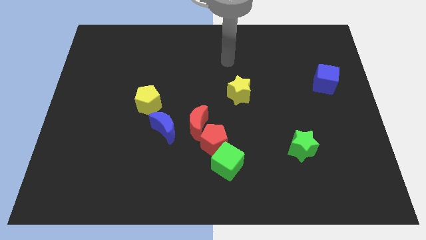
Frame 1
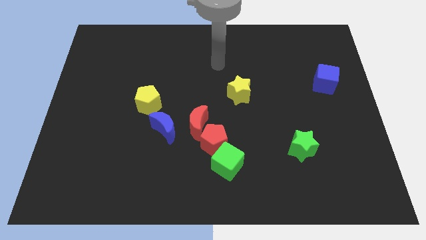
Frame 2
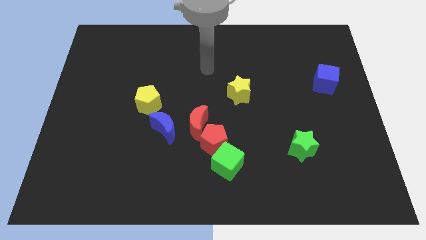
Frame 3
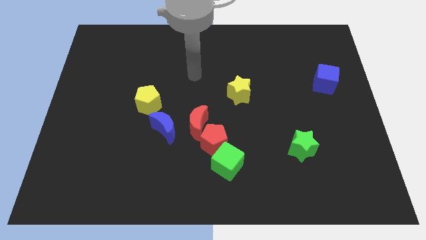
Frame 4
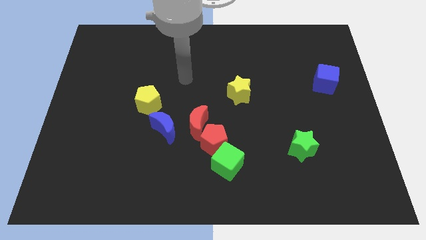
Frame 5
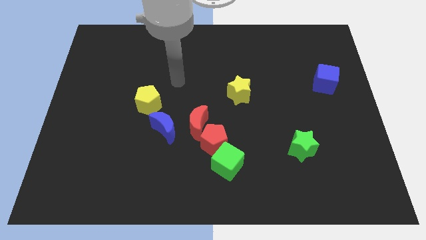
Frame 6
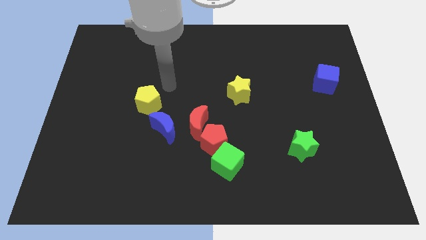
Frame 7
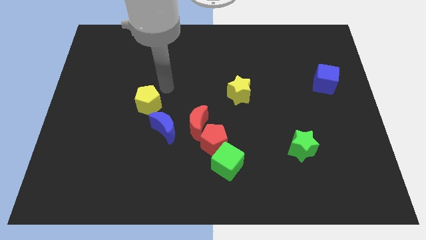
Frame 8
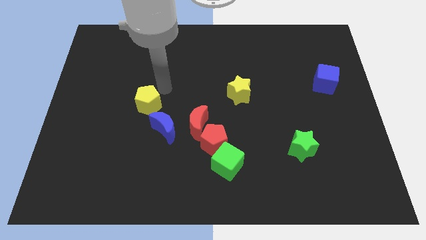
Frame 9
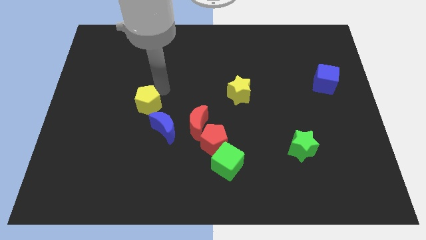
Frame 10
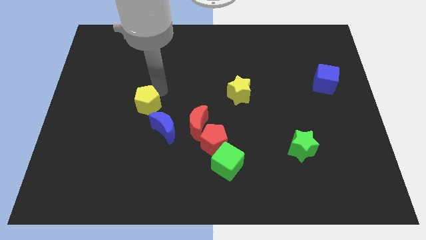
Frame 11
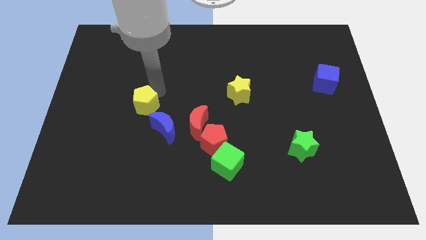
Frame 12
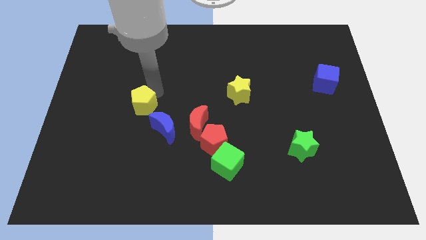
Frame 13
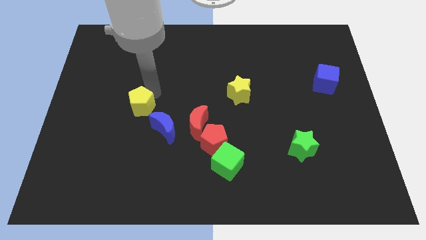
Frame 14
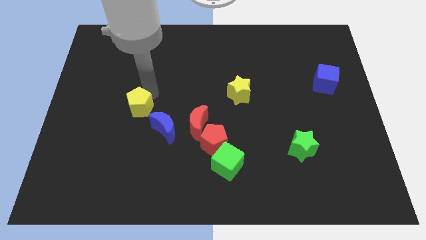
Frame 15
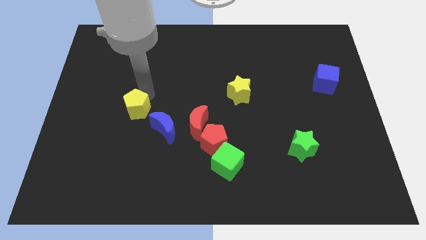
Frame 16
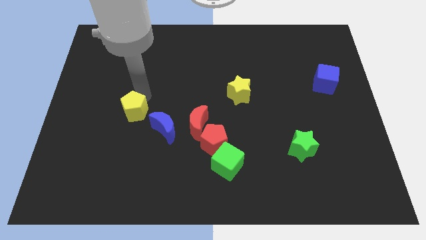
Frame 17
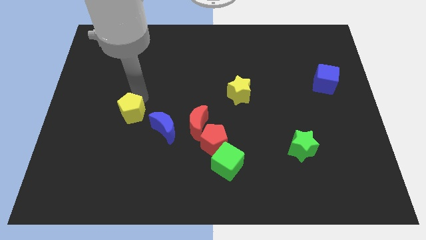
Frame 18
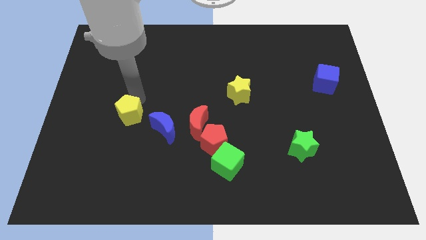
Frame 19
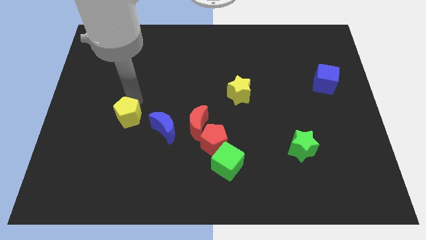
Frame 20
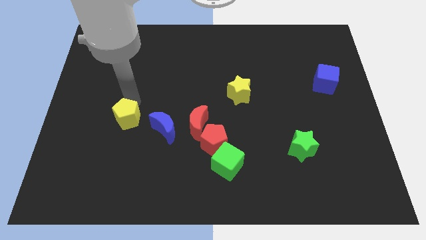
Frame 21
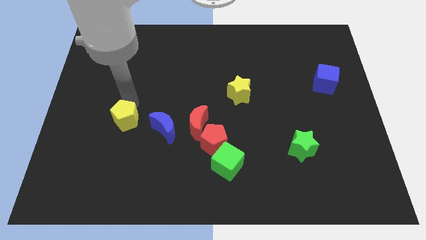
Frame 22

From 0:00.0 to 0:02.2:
push the yellow pentagon a bit diagonally downwards and left

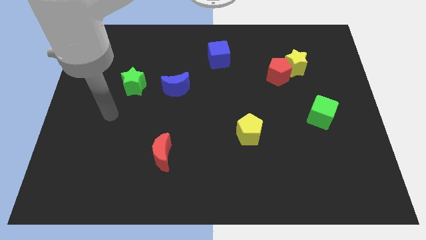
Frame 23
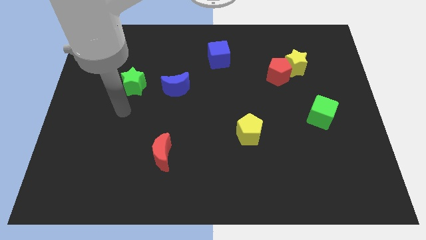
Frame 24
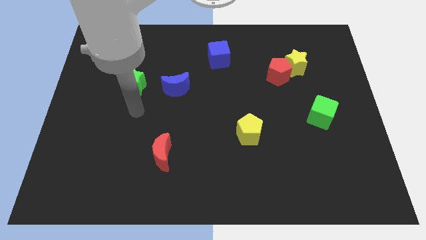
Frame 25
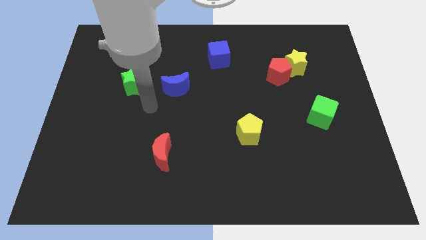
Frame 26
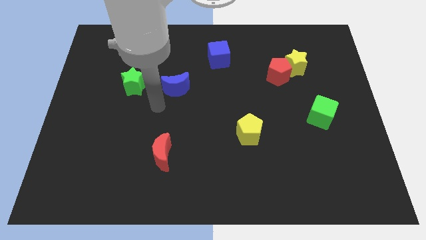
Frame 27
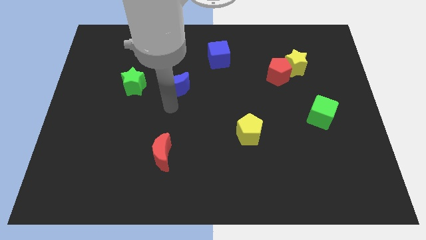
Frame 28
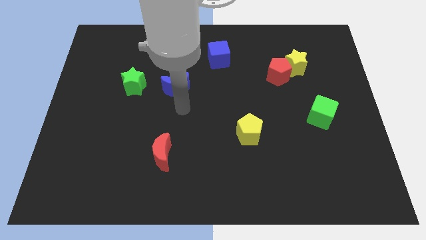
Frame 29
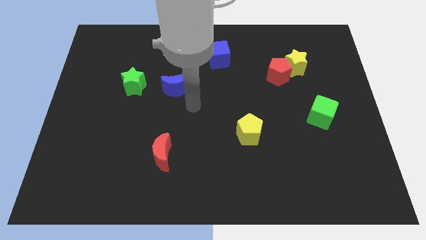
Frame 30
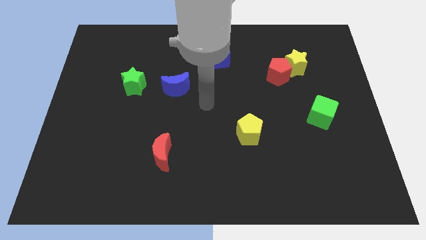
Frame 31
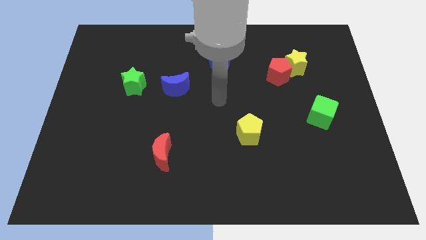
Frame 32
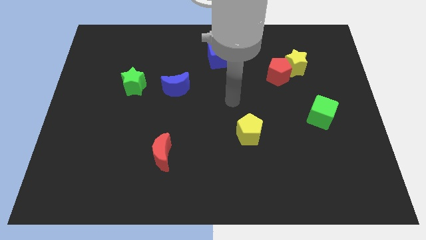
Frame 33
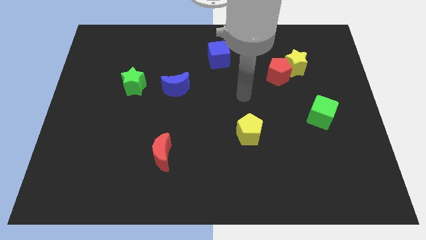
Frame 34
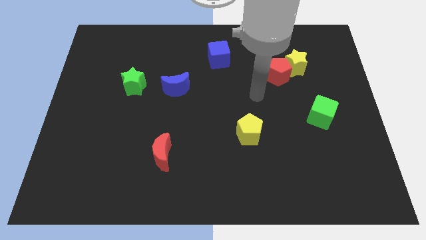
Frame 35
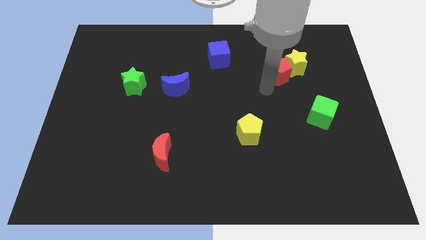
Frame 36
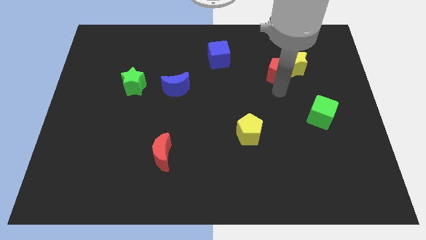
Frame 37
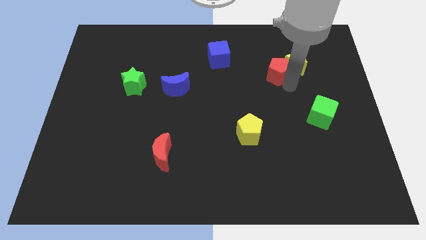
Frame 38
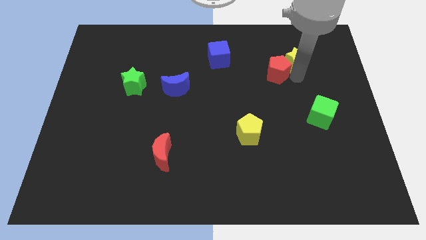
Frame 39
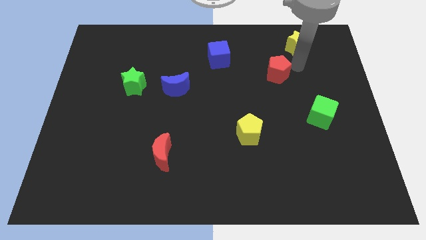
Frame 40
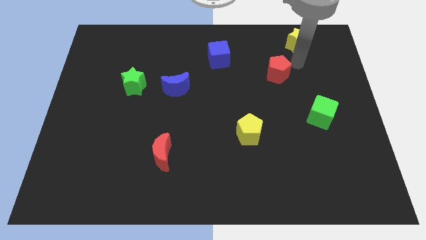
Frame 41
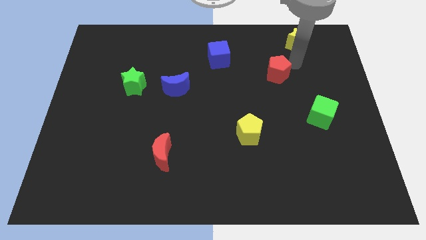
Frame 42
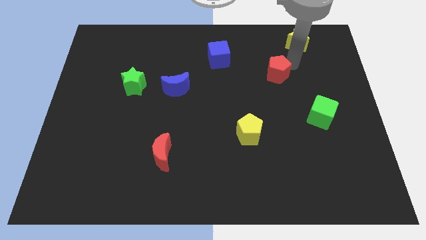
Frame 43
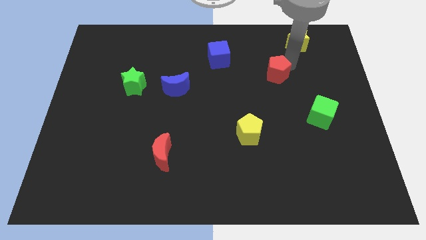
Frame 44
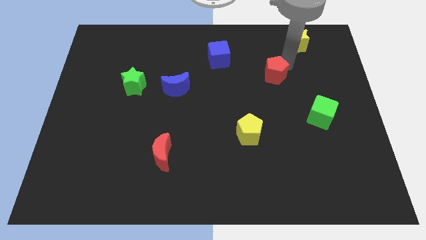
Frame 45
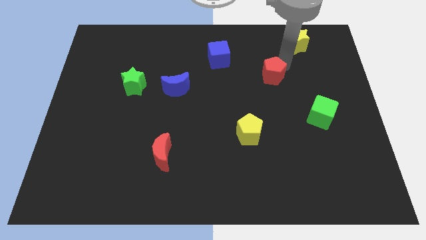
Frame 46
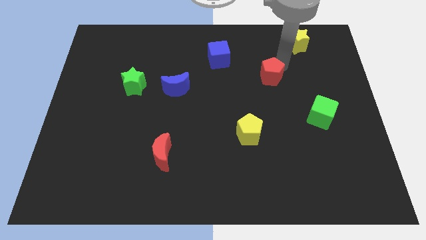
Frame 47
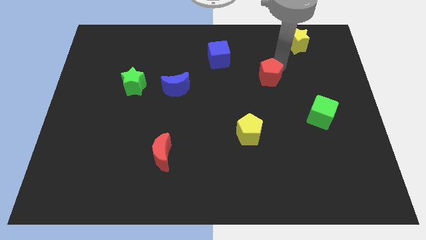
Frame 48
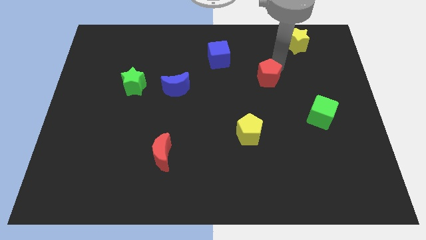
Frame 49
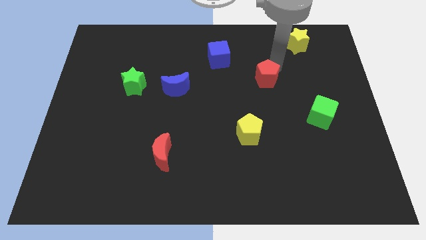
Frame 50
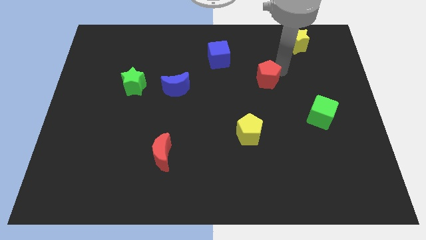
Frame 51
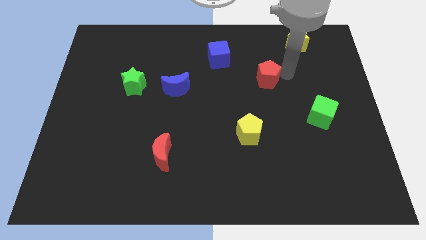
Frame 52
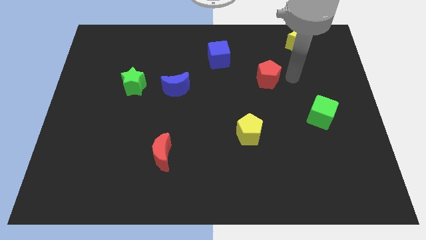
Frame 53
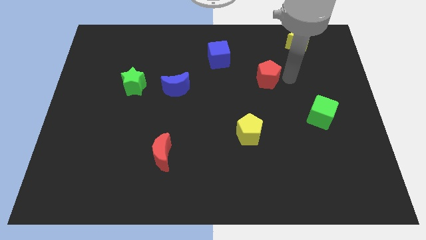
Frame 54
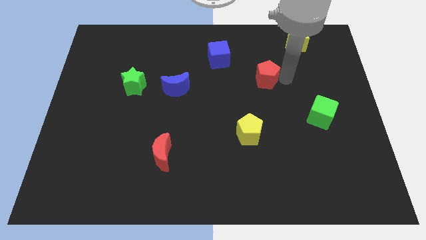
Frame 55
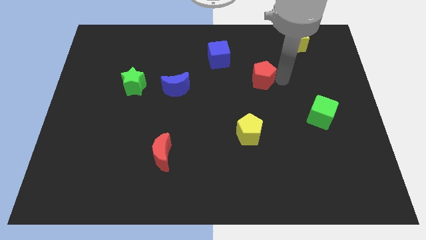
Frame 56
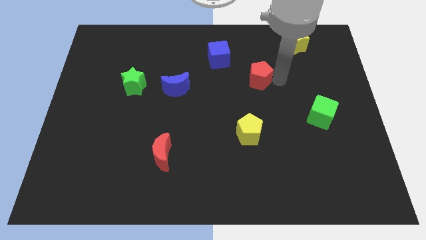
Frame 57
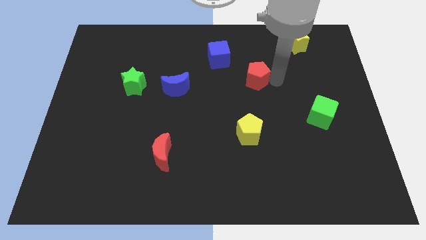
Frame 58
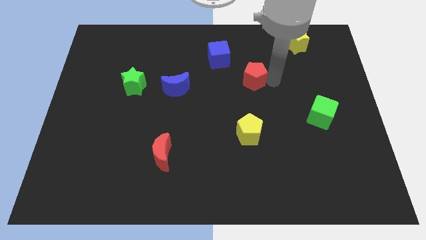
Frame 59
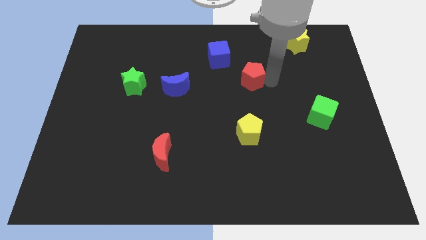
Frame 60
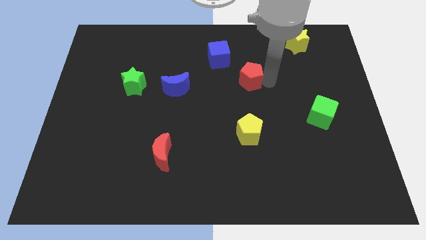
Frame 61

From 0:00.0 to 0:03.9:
push the red pentagon to the left a bit

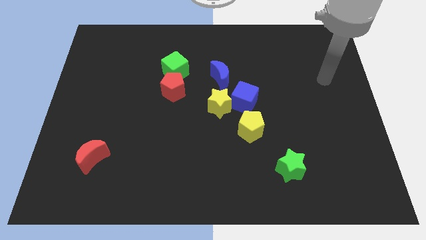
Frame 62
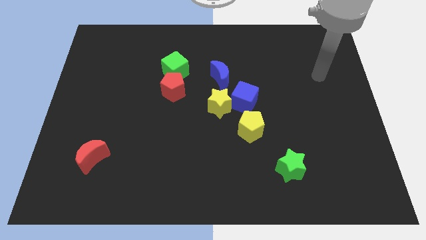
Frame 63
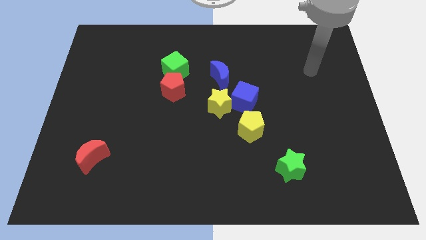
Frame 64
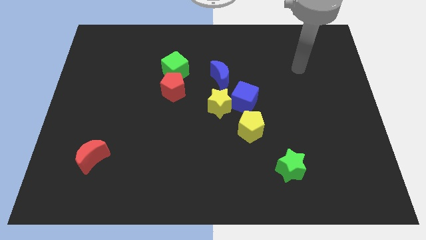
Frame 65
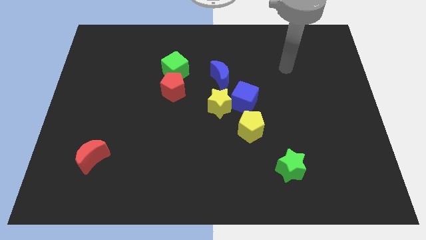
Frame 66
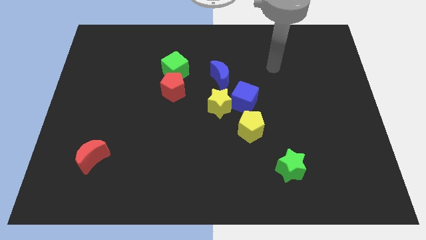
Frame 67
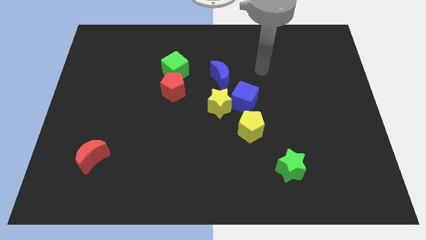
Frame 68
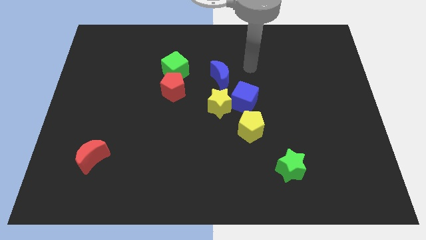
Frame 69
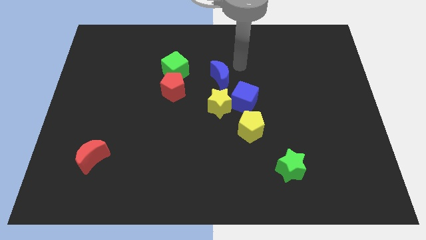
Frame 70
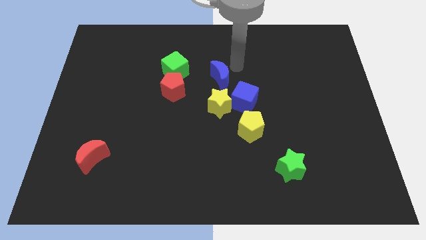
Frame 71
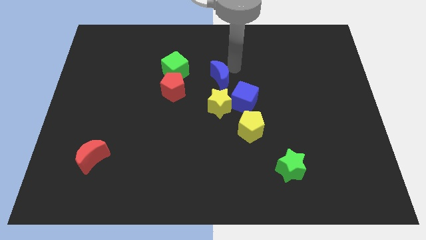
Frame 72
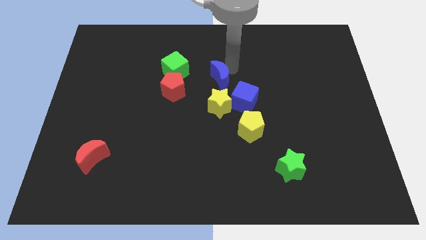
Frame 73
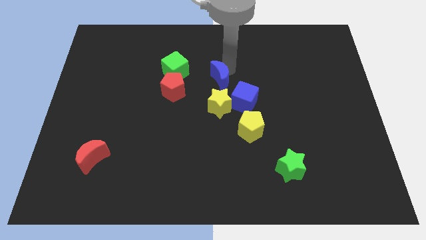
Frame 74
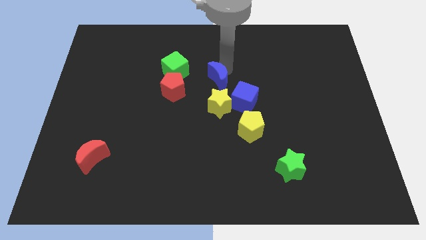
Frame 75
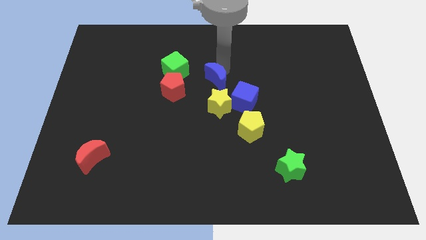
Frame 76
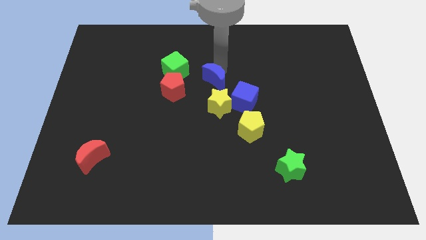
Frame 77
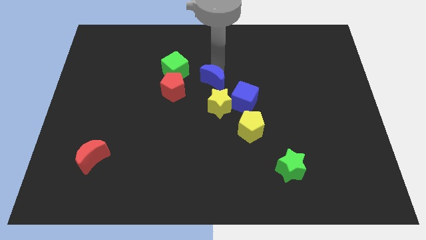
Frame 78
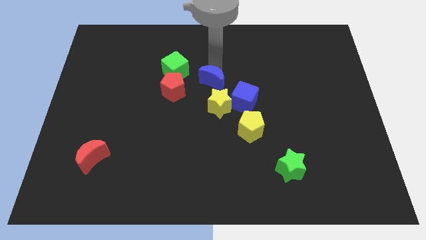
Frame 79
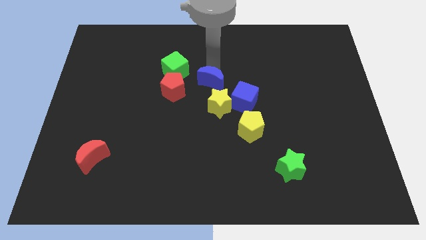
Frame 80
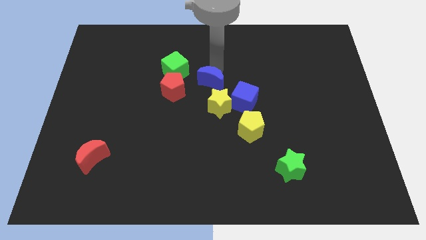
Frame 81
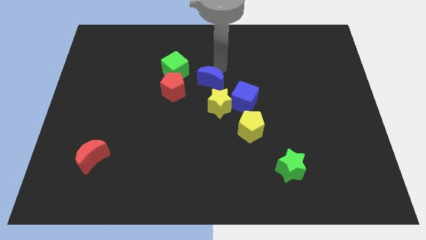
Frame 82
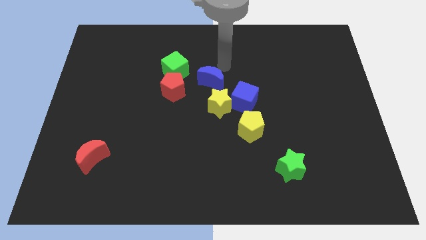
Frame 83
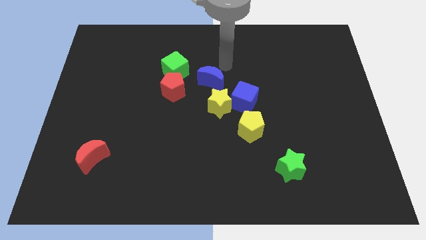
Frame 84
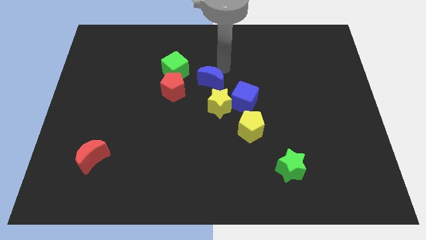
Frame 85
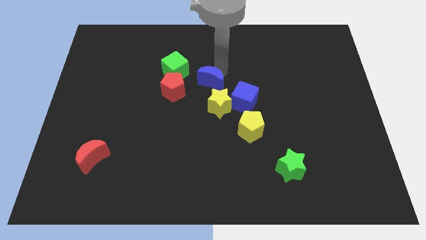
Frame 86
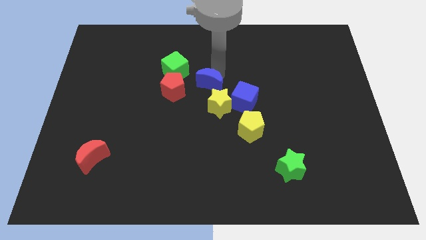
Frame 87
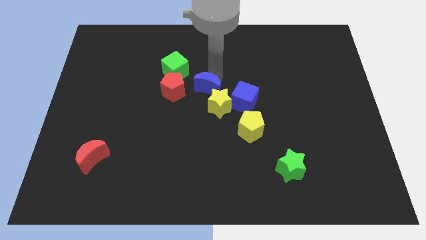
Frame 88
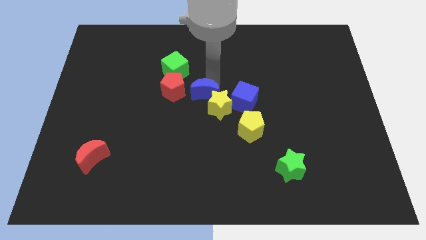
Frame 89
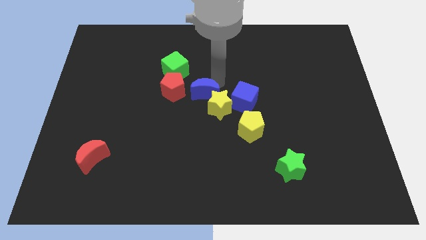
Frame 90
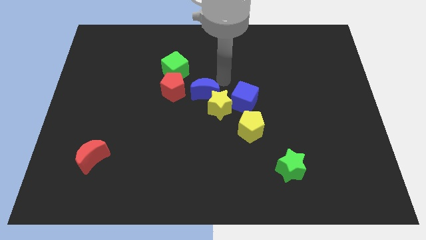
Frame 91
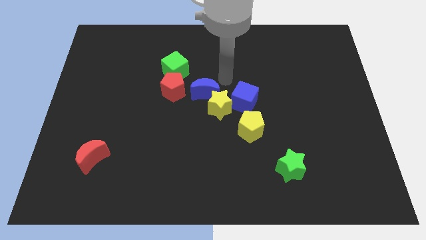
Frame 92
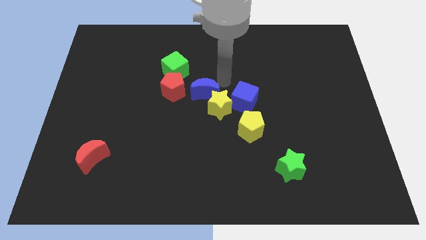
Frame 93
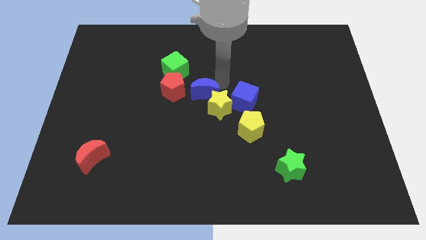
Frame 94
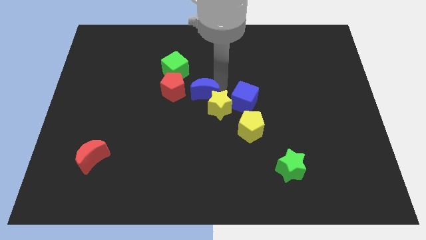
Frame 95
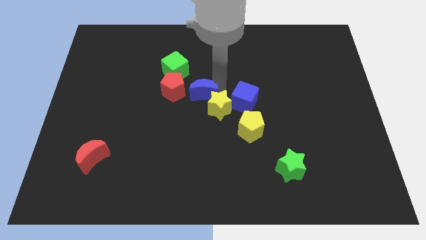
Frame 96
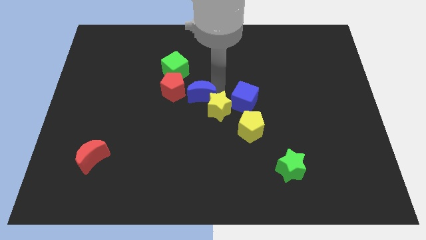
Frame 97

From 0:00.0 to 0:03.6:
slide the blue moon a little down and then left
